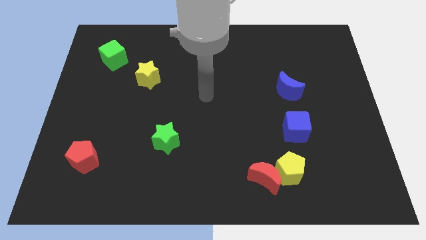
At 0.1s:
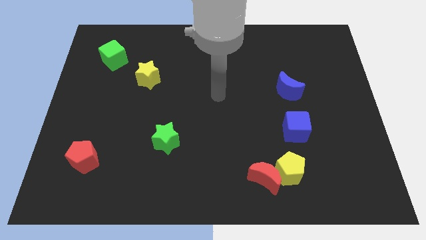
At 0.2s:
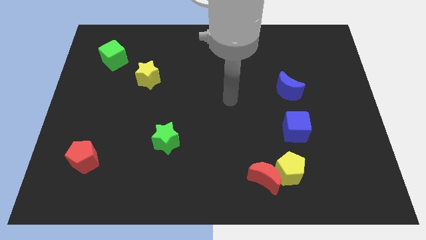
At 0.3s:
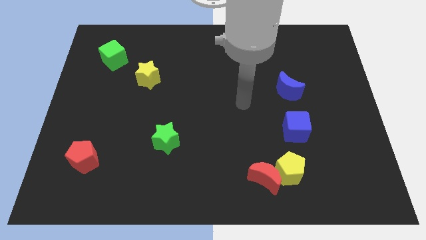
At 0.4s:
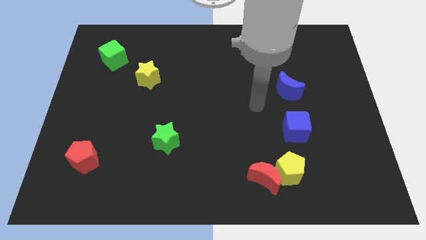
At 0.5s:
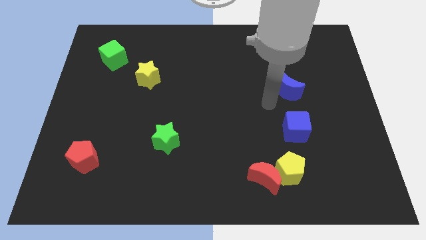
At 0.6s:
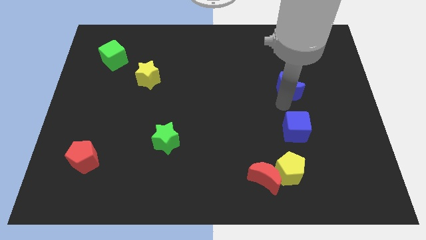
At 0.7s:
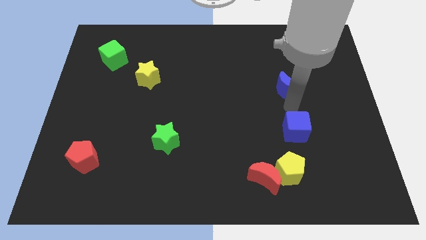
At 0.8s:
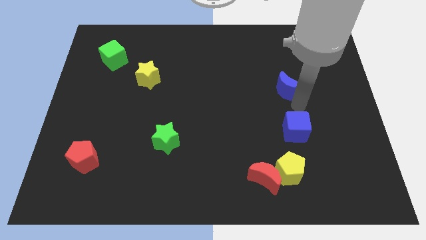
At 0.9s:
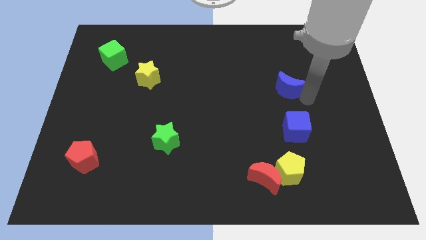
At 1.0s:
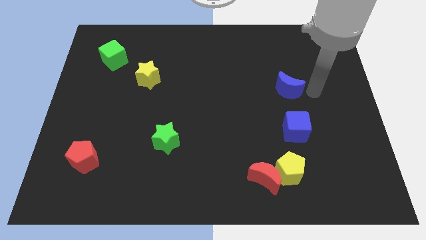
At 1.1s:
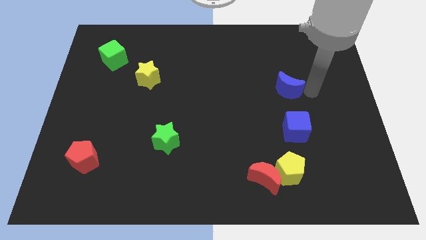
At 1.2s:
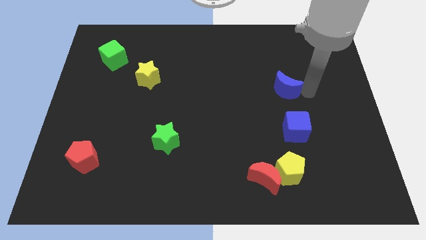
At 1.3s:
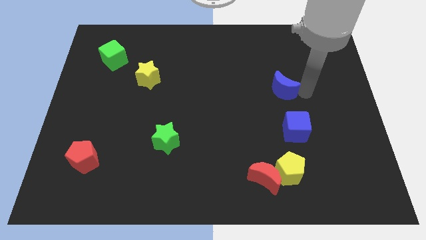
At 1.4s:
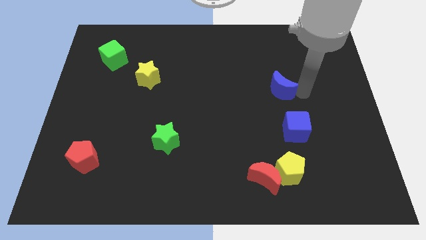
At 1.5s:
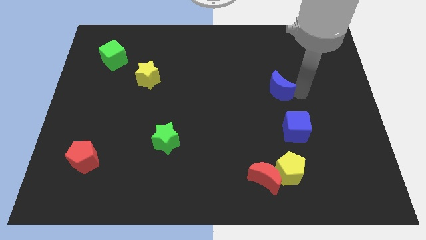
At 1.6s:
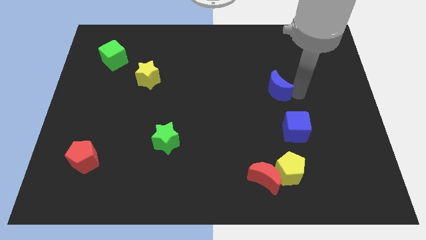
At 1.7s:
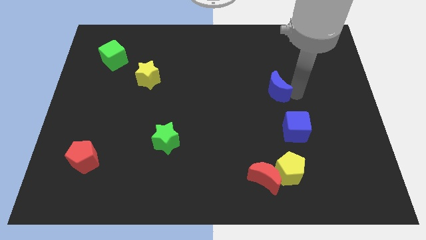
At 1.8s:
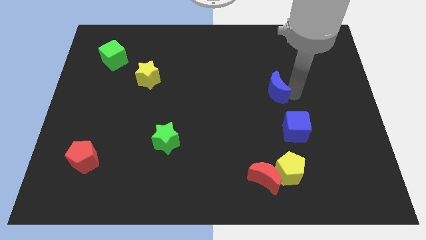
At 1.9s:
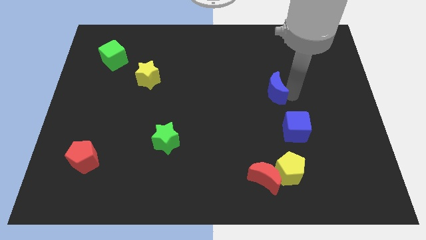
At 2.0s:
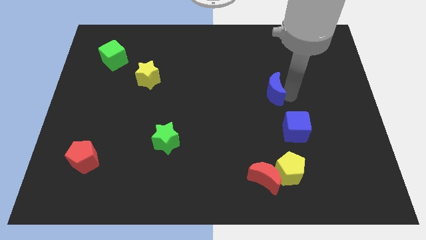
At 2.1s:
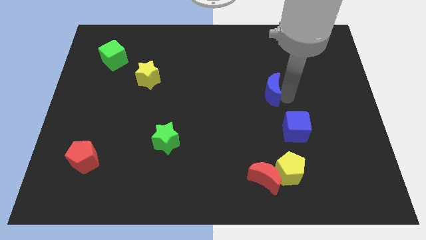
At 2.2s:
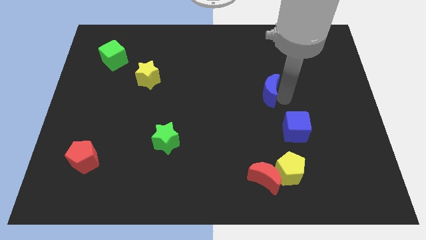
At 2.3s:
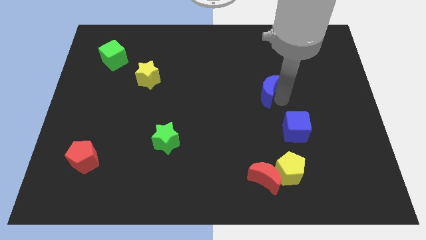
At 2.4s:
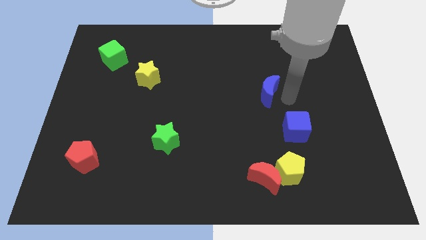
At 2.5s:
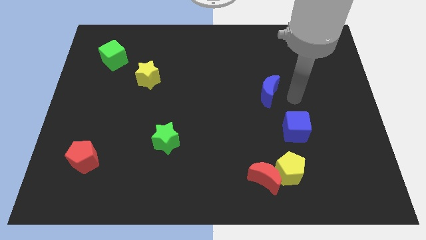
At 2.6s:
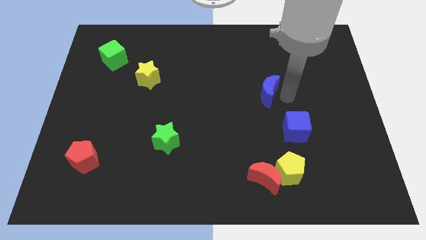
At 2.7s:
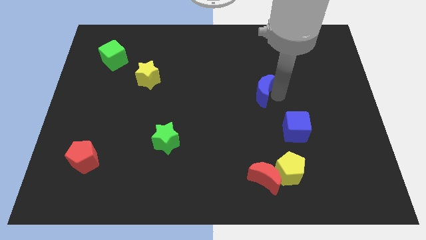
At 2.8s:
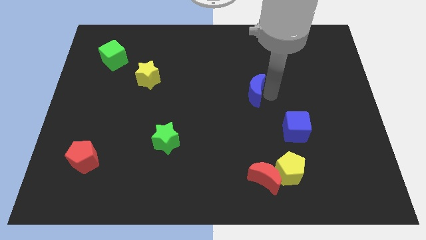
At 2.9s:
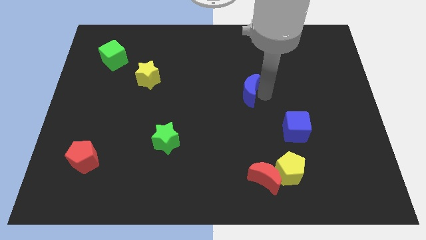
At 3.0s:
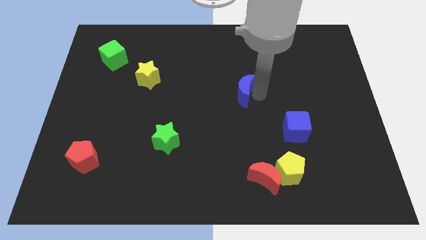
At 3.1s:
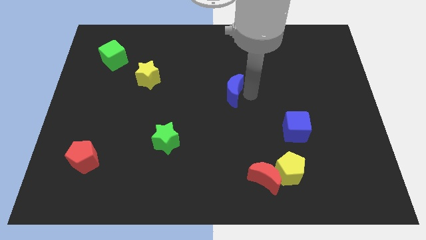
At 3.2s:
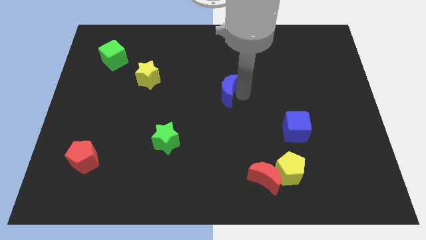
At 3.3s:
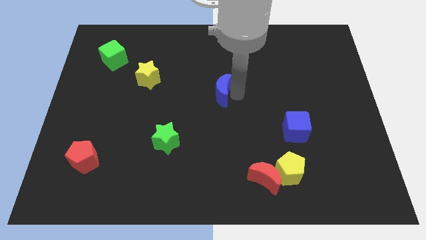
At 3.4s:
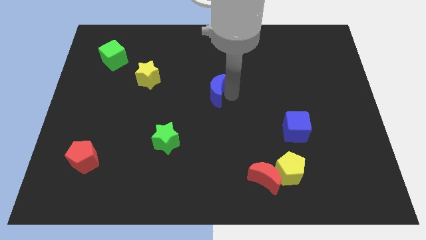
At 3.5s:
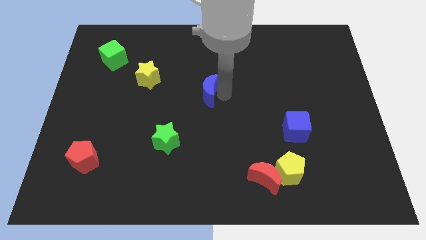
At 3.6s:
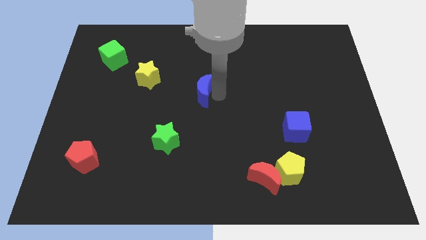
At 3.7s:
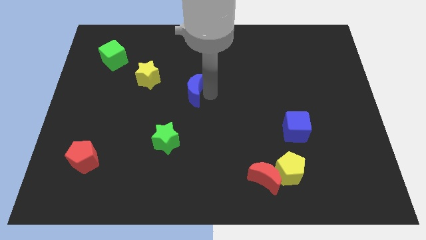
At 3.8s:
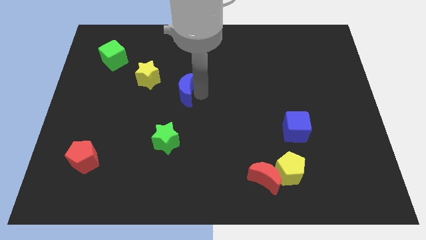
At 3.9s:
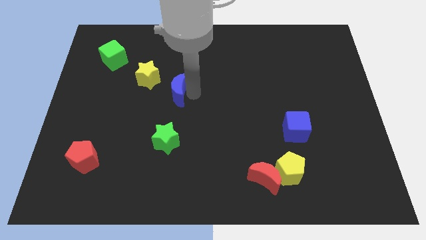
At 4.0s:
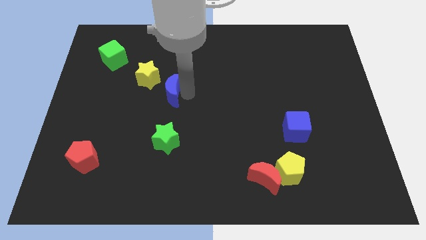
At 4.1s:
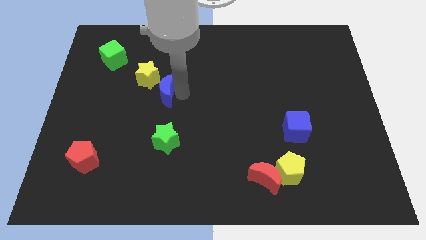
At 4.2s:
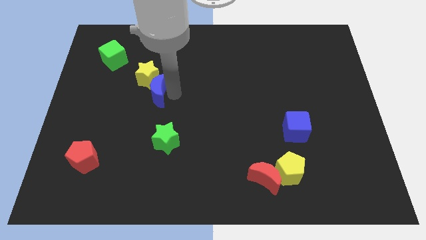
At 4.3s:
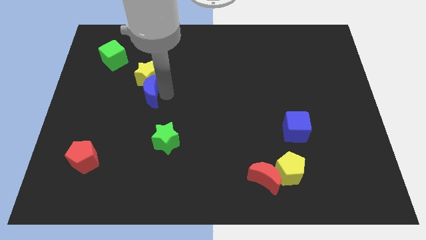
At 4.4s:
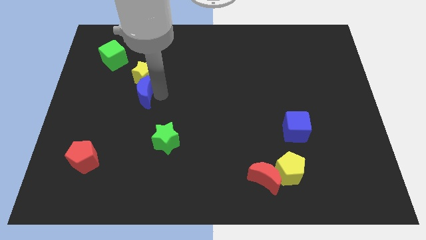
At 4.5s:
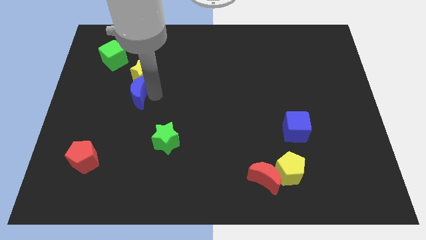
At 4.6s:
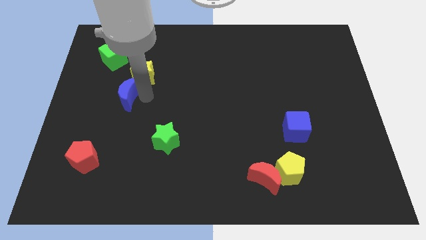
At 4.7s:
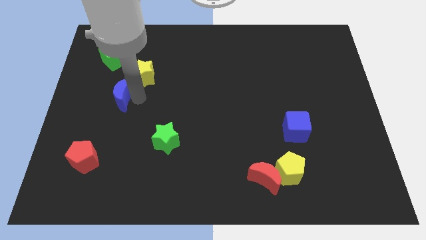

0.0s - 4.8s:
slide the blue moon to the bottom side of the green cube

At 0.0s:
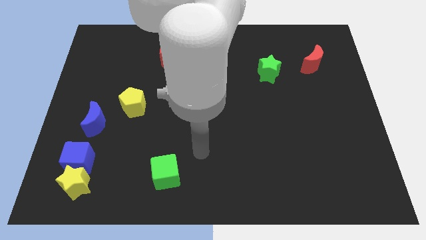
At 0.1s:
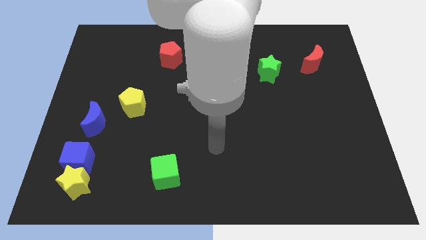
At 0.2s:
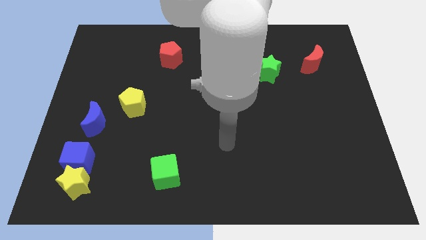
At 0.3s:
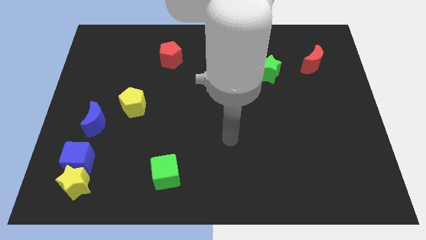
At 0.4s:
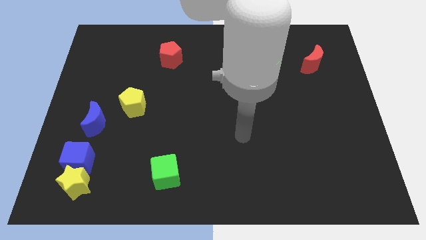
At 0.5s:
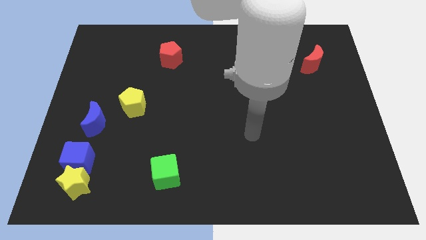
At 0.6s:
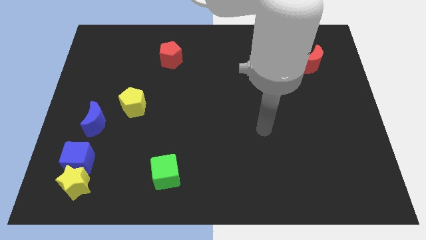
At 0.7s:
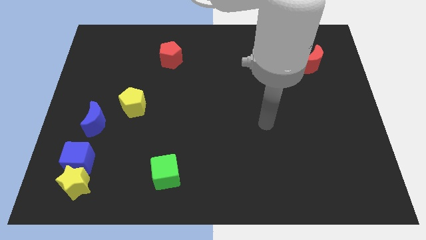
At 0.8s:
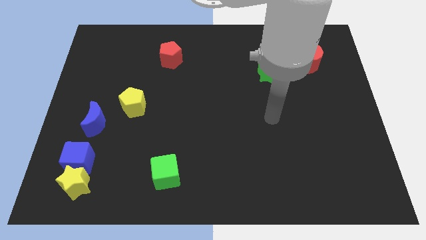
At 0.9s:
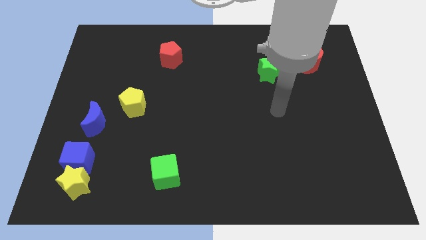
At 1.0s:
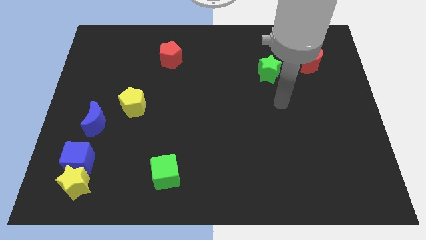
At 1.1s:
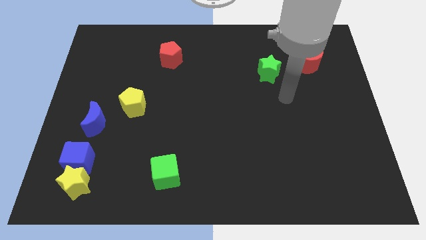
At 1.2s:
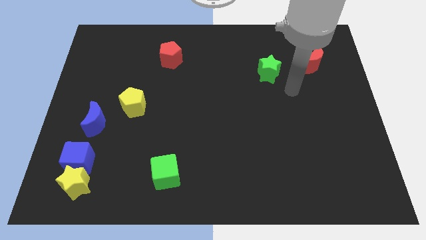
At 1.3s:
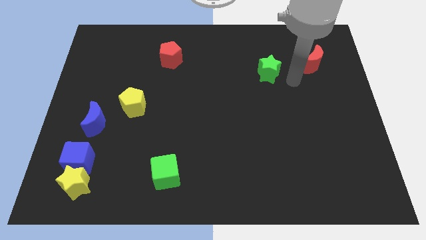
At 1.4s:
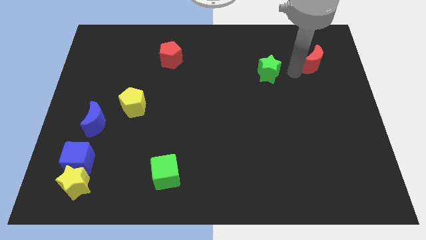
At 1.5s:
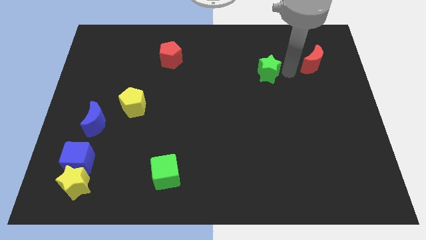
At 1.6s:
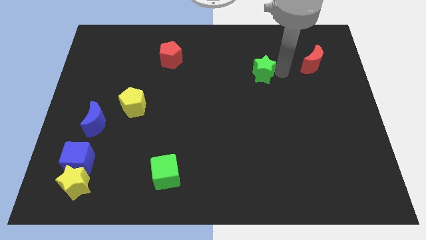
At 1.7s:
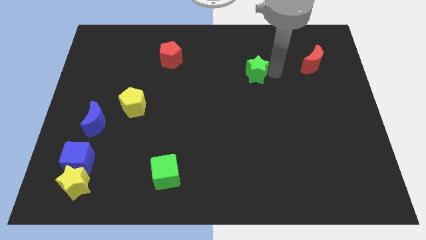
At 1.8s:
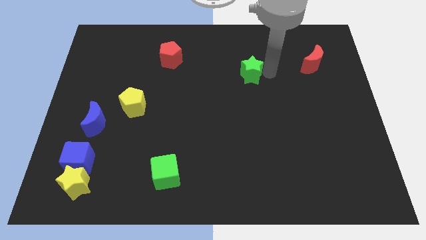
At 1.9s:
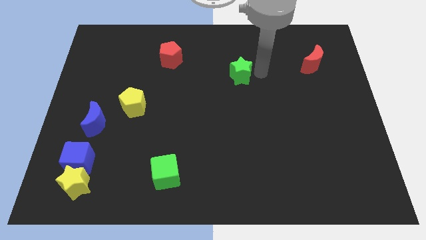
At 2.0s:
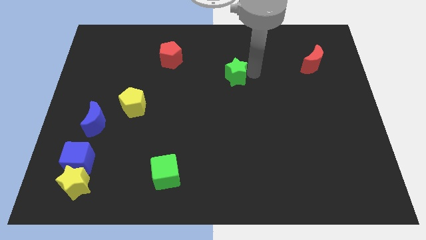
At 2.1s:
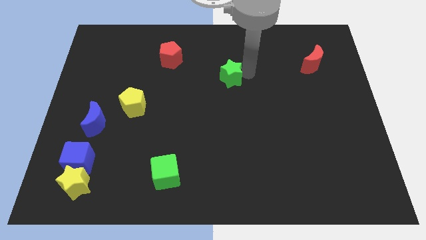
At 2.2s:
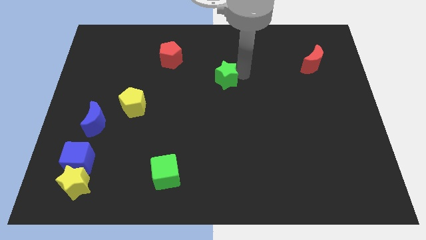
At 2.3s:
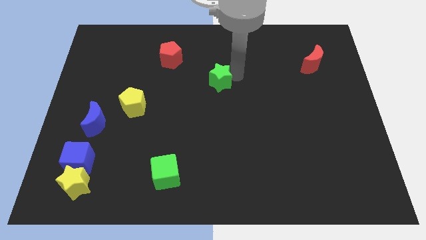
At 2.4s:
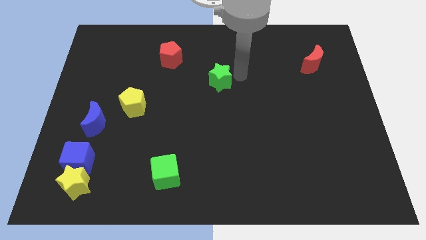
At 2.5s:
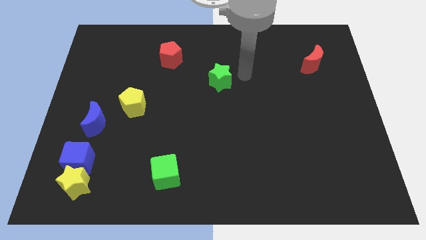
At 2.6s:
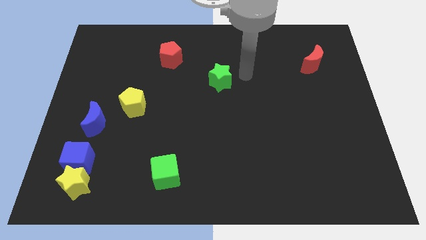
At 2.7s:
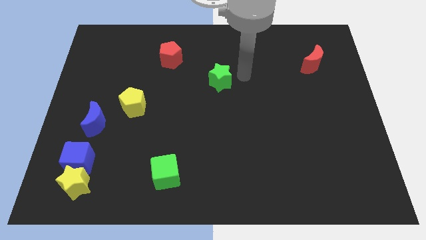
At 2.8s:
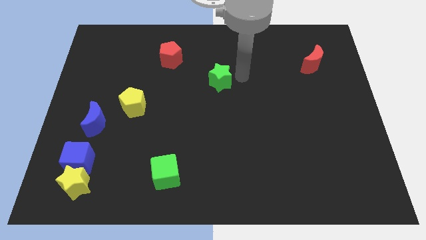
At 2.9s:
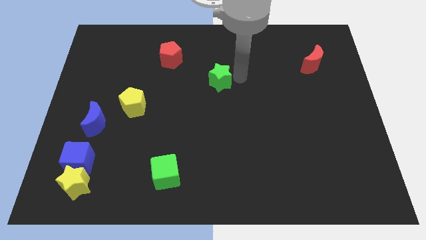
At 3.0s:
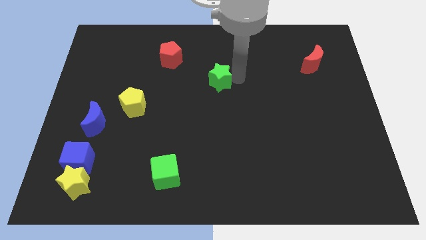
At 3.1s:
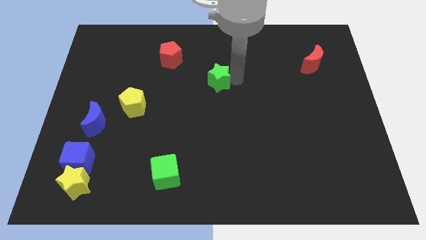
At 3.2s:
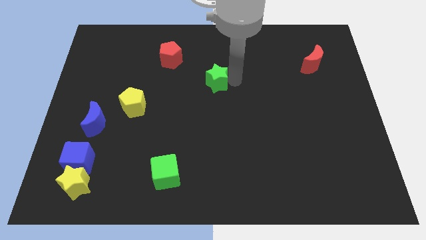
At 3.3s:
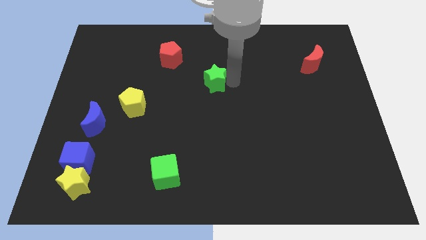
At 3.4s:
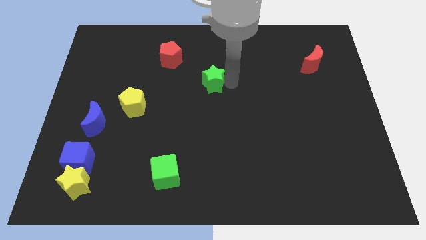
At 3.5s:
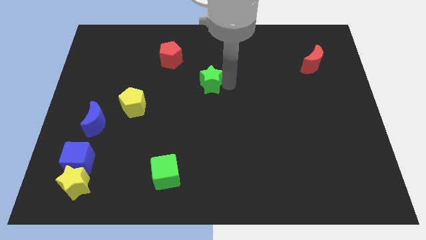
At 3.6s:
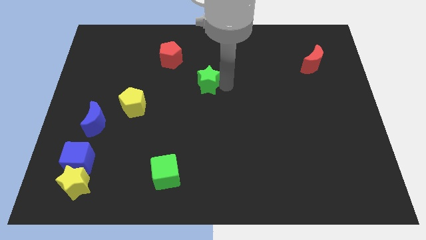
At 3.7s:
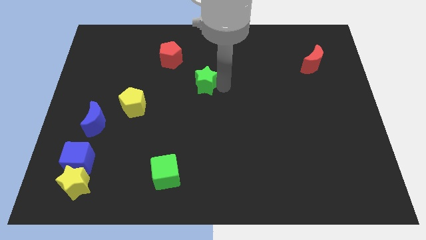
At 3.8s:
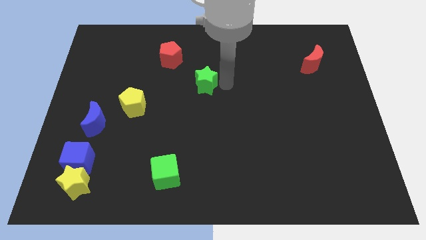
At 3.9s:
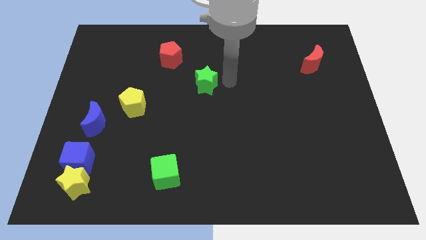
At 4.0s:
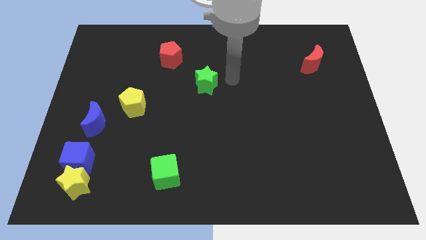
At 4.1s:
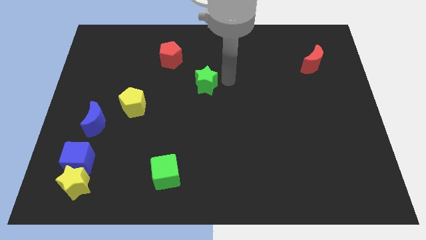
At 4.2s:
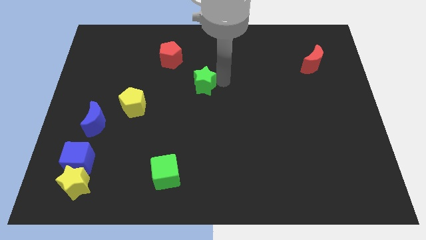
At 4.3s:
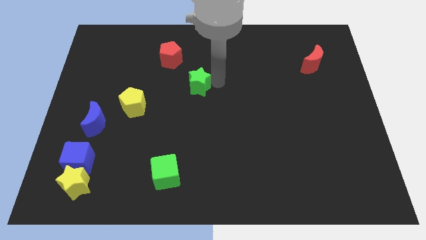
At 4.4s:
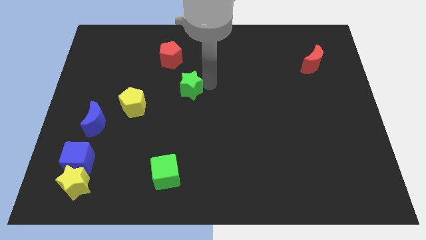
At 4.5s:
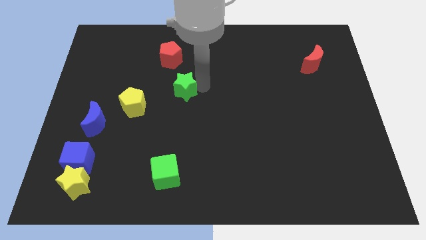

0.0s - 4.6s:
move the green star to the bottom side of the red pentagon
